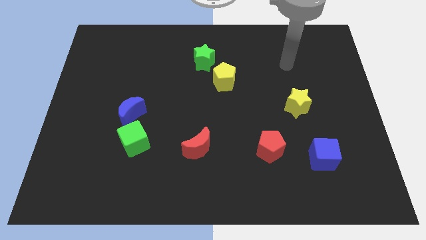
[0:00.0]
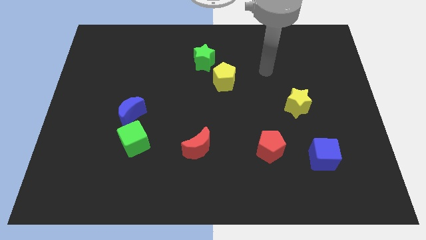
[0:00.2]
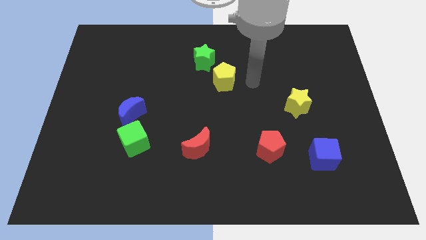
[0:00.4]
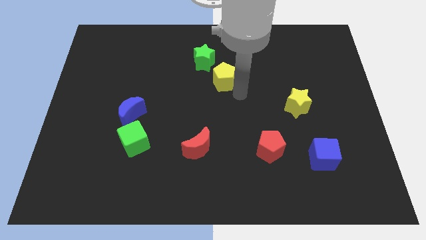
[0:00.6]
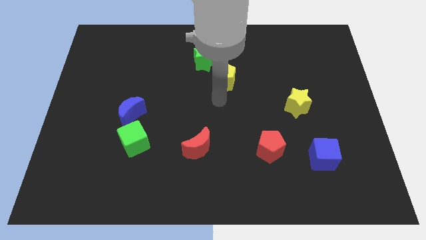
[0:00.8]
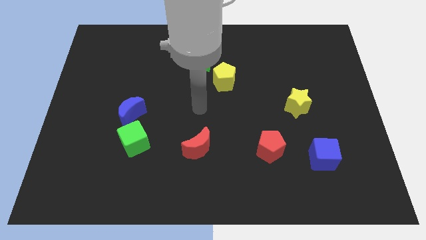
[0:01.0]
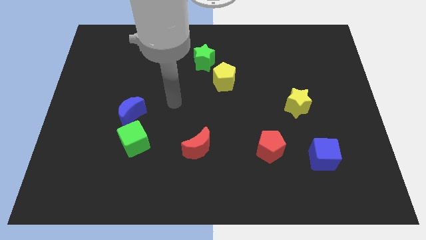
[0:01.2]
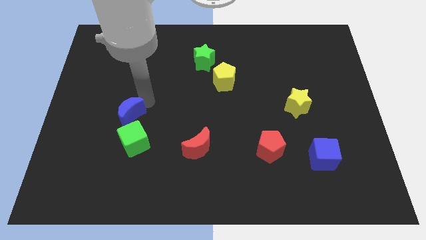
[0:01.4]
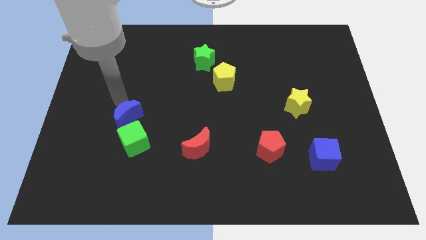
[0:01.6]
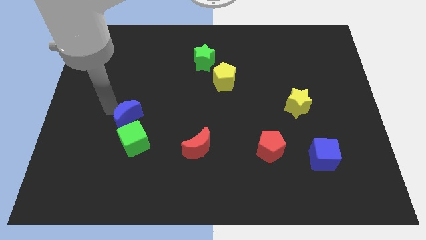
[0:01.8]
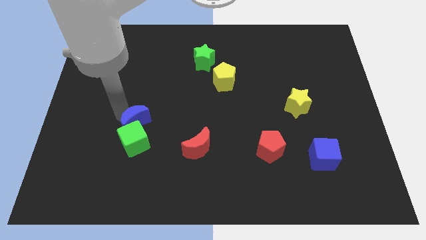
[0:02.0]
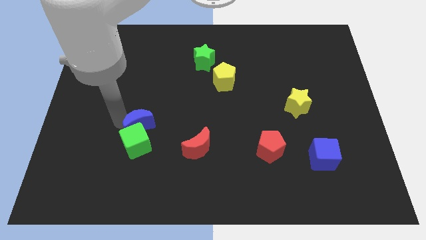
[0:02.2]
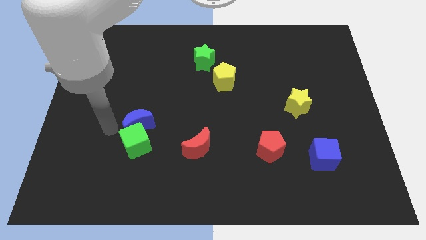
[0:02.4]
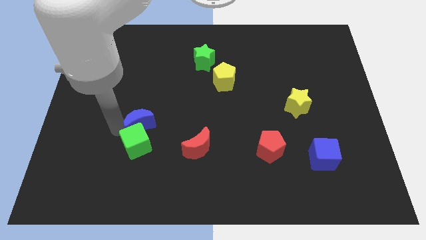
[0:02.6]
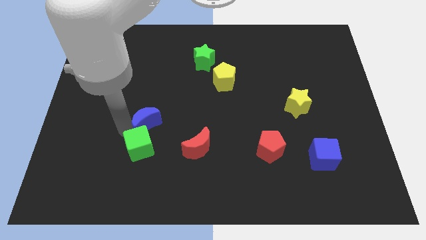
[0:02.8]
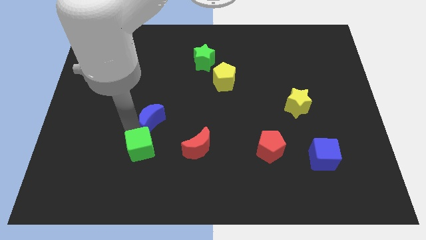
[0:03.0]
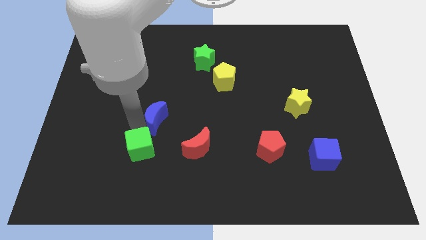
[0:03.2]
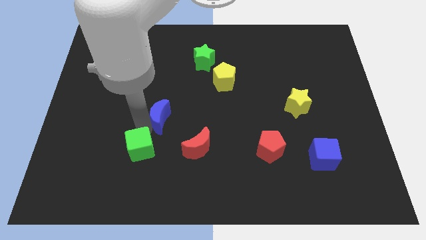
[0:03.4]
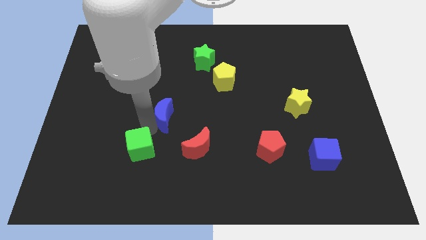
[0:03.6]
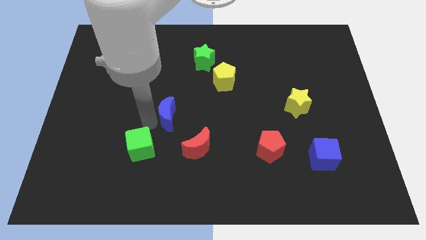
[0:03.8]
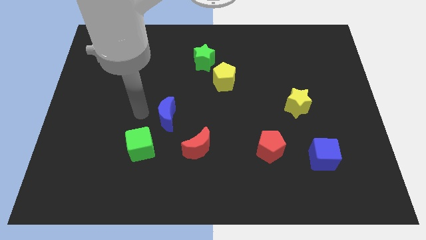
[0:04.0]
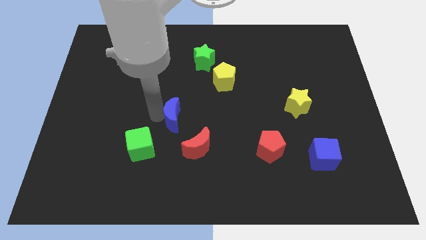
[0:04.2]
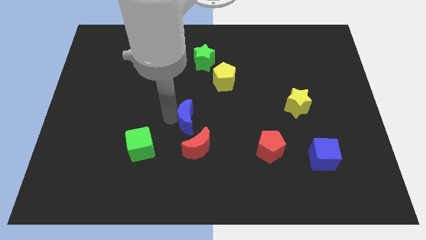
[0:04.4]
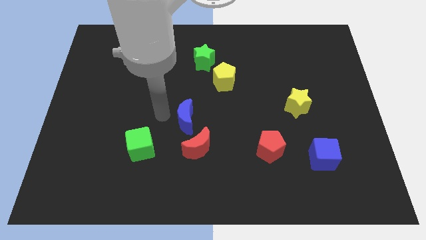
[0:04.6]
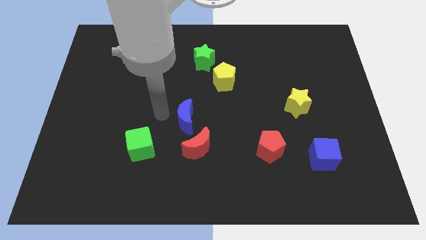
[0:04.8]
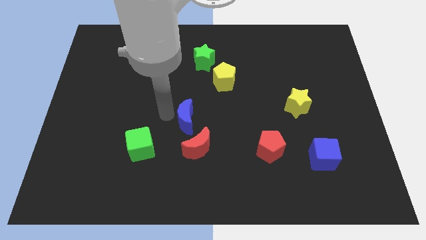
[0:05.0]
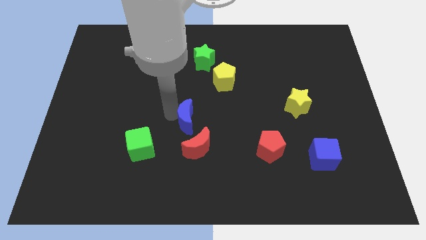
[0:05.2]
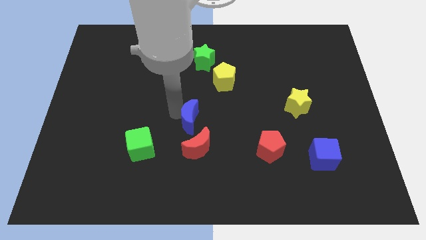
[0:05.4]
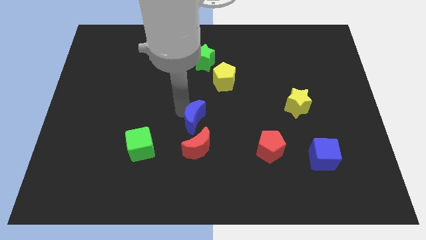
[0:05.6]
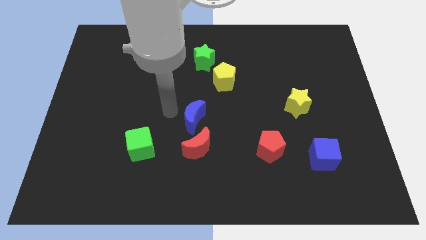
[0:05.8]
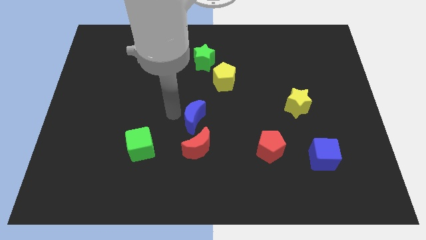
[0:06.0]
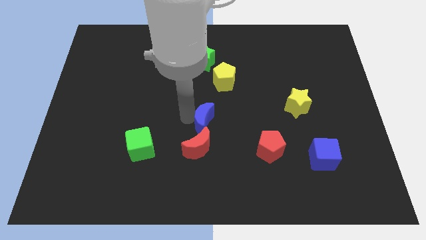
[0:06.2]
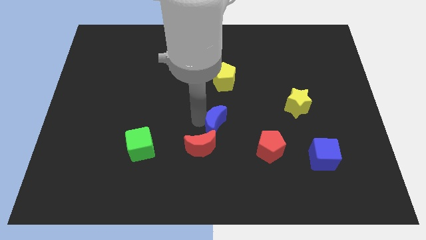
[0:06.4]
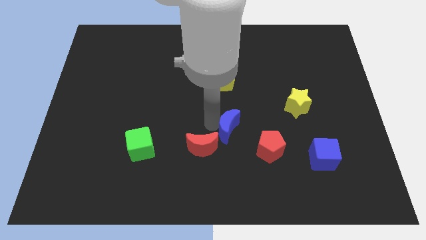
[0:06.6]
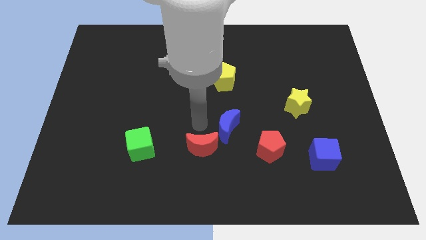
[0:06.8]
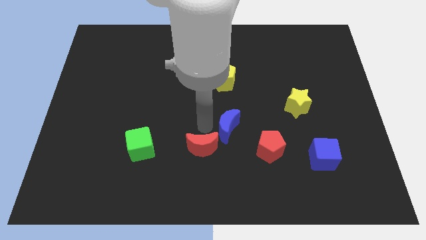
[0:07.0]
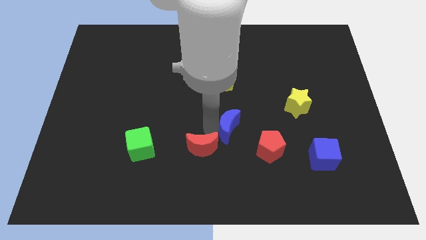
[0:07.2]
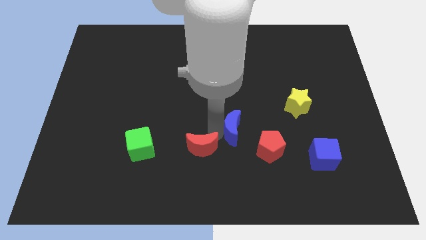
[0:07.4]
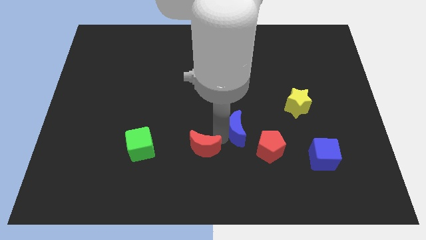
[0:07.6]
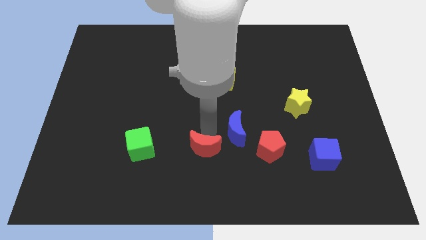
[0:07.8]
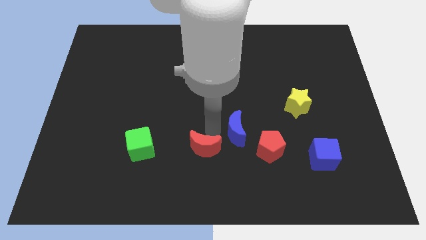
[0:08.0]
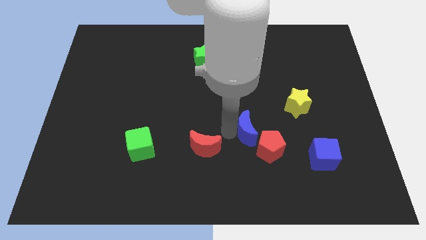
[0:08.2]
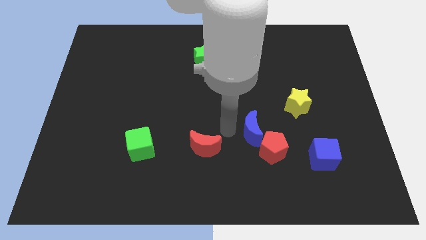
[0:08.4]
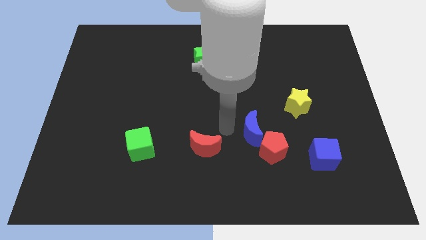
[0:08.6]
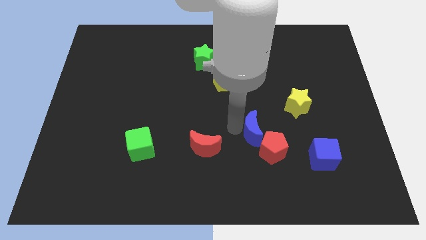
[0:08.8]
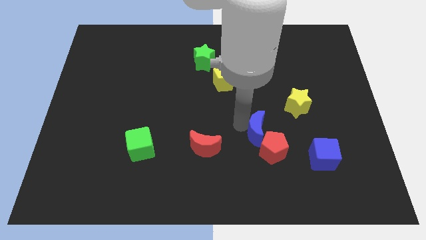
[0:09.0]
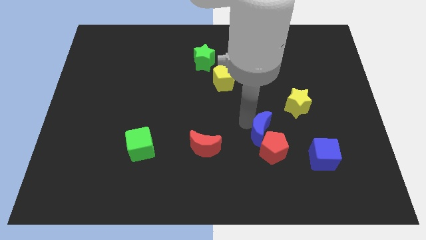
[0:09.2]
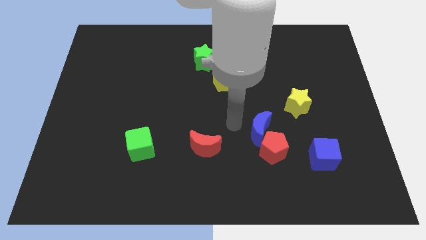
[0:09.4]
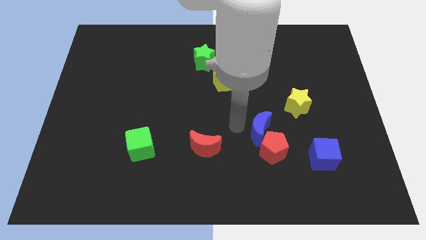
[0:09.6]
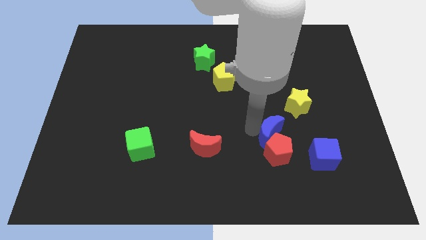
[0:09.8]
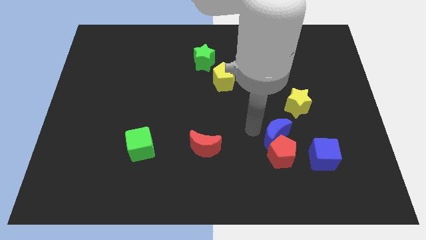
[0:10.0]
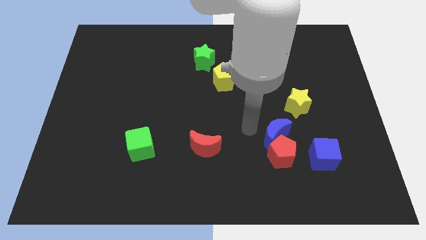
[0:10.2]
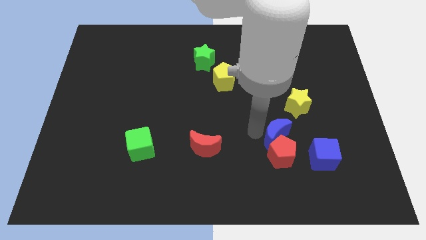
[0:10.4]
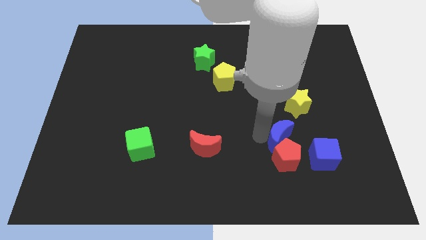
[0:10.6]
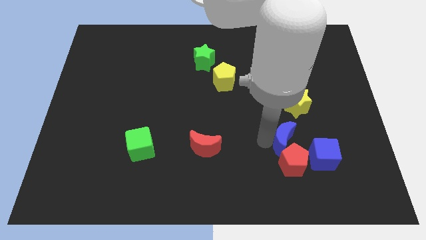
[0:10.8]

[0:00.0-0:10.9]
push the blue moon below the yellow star
